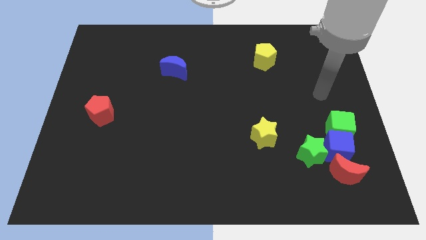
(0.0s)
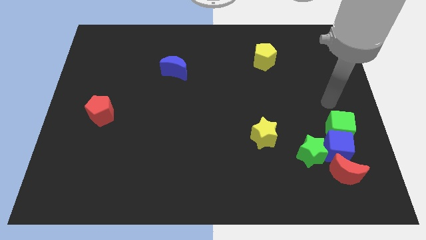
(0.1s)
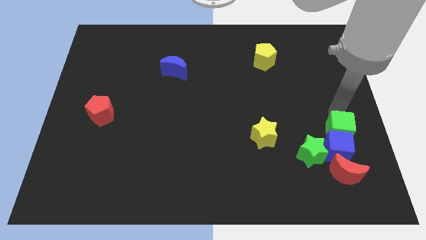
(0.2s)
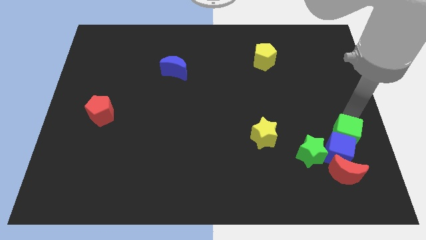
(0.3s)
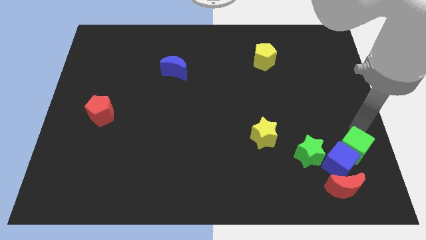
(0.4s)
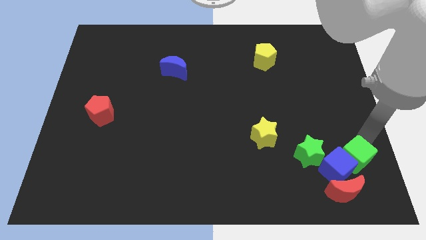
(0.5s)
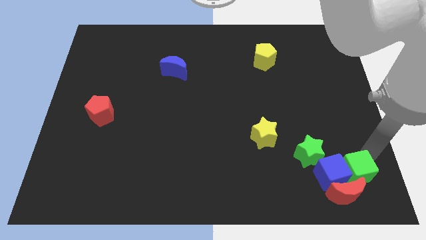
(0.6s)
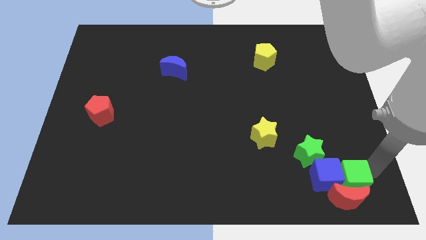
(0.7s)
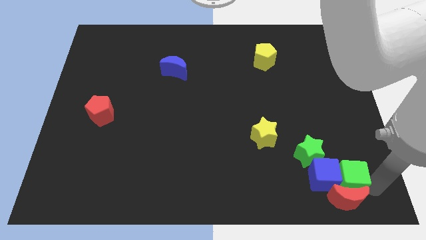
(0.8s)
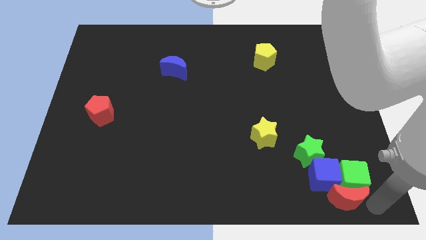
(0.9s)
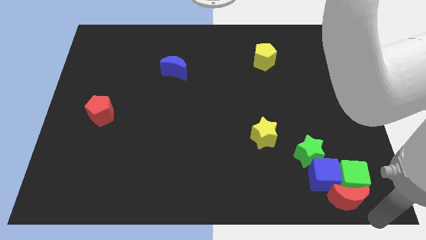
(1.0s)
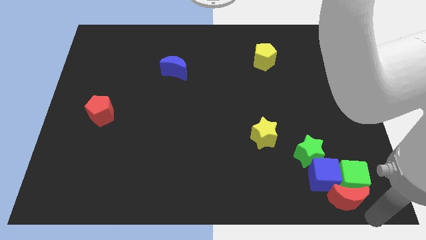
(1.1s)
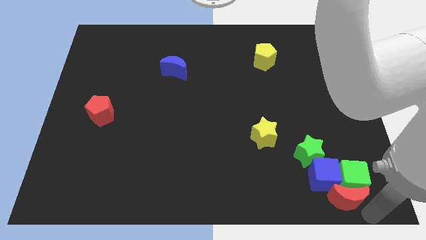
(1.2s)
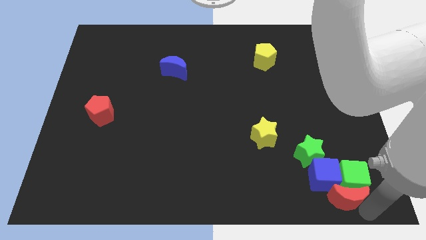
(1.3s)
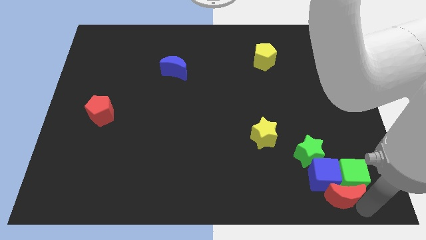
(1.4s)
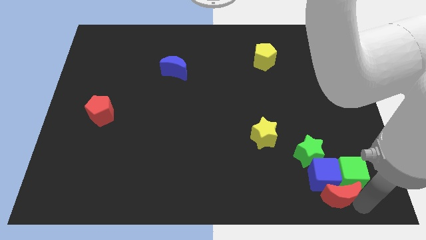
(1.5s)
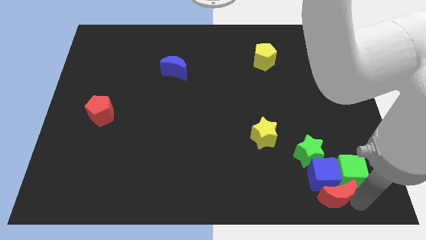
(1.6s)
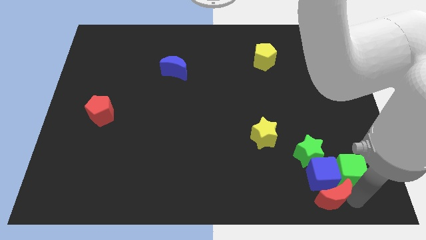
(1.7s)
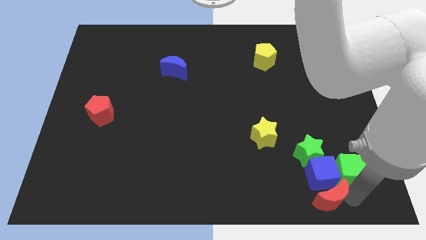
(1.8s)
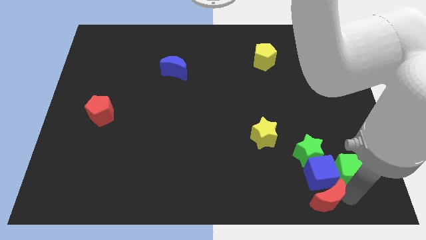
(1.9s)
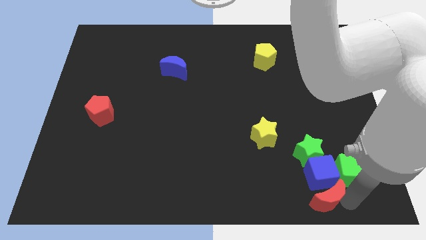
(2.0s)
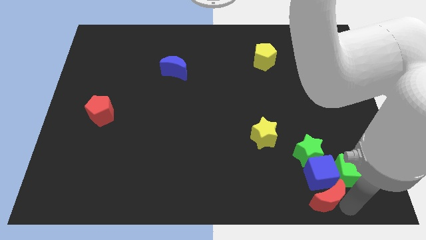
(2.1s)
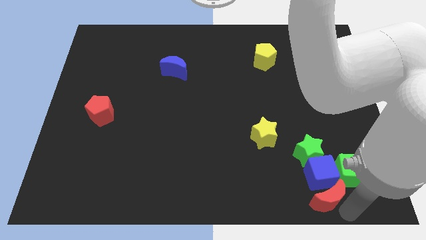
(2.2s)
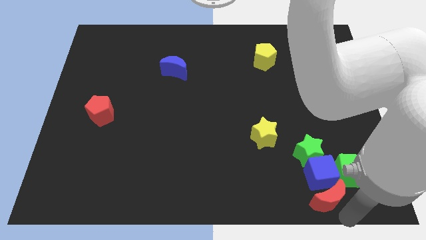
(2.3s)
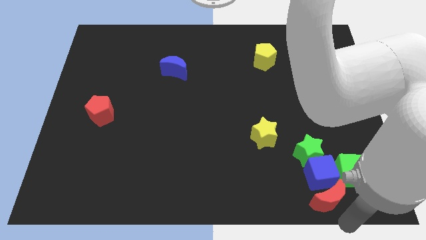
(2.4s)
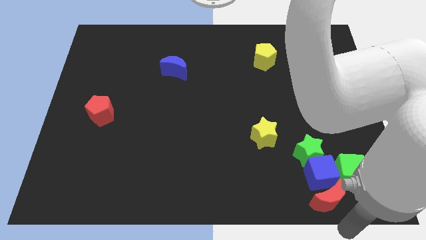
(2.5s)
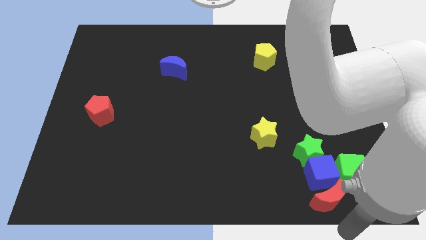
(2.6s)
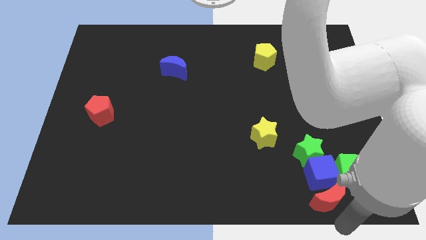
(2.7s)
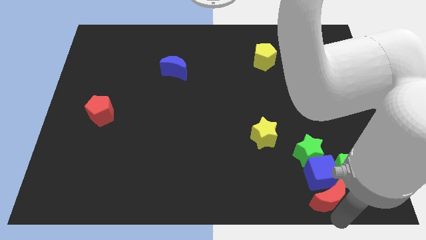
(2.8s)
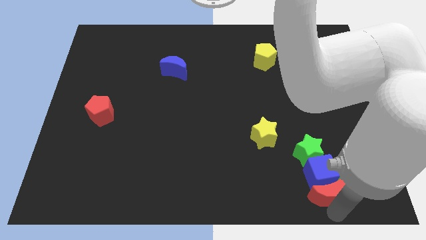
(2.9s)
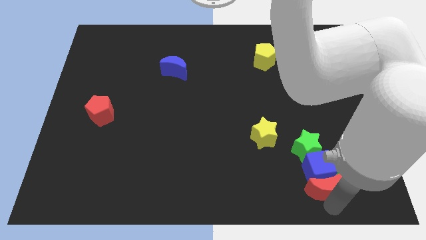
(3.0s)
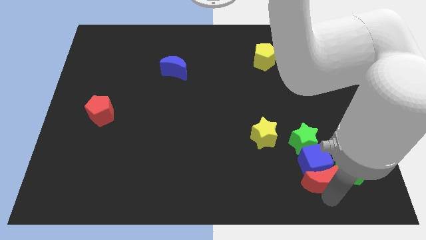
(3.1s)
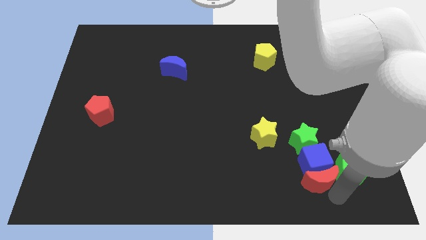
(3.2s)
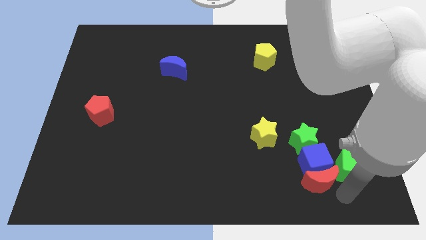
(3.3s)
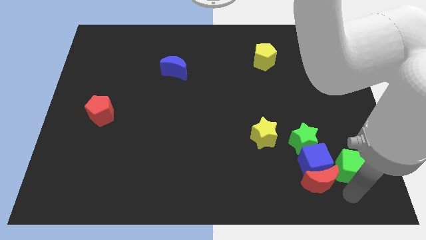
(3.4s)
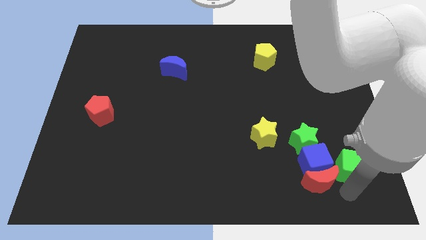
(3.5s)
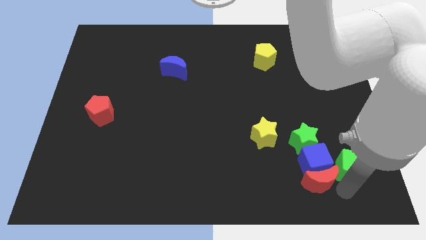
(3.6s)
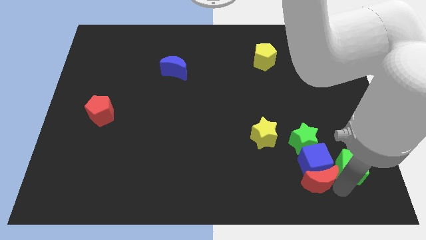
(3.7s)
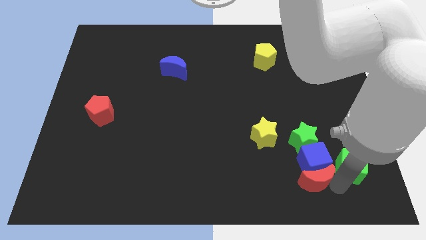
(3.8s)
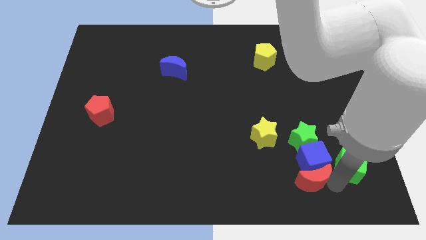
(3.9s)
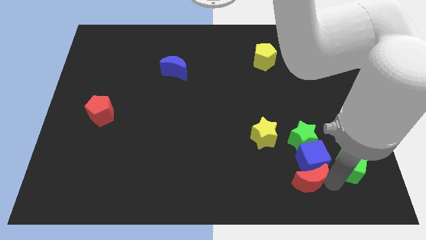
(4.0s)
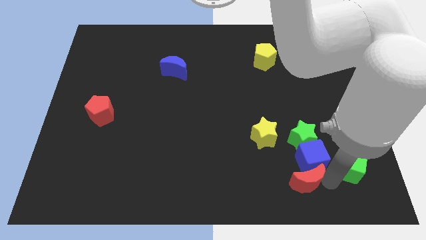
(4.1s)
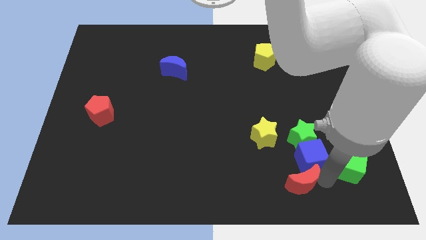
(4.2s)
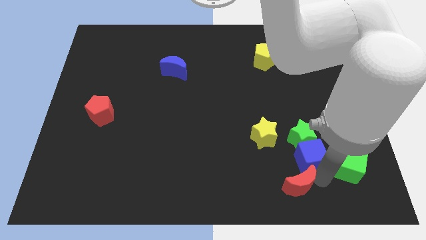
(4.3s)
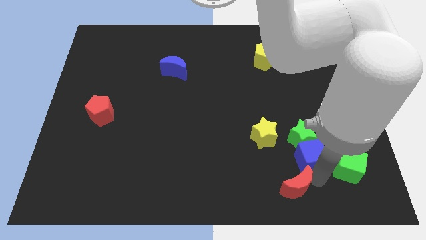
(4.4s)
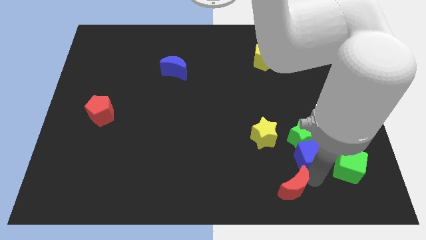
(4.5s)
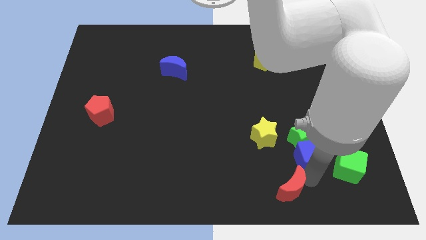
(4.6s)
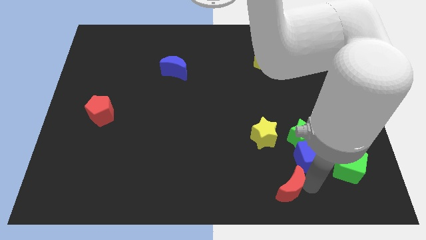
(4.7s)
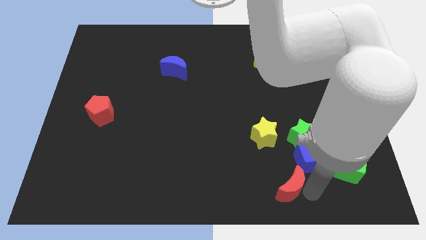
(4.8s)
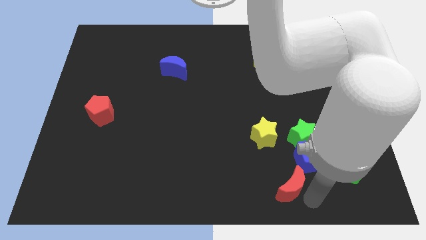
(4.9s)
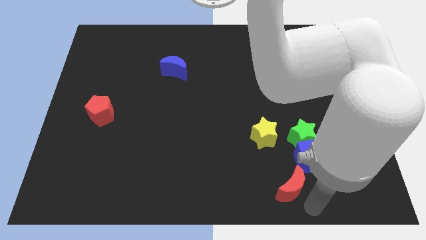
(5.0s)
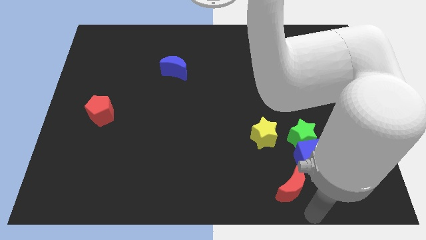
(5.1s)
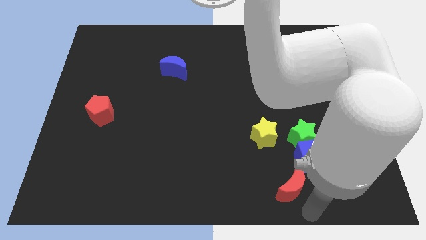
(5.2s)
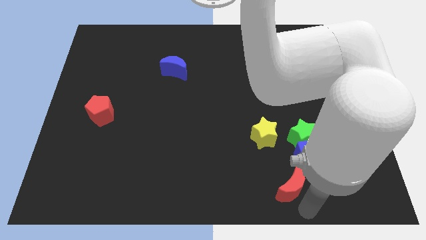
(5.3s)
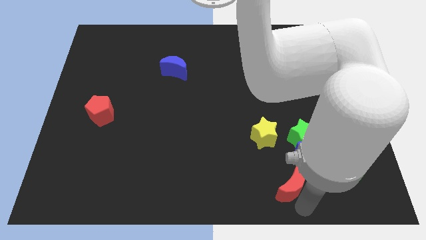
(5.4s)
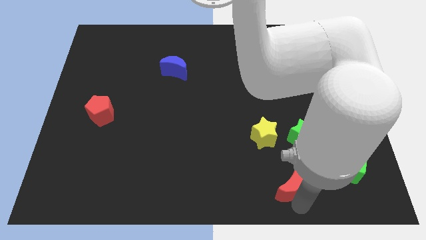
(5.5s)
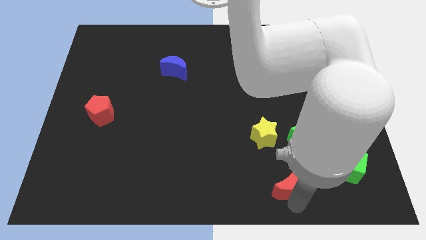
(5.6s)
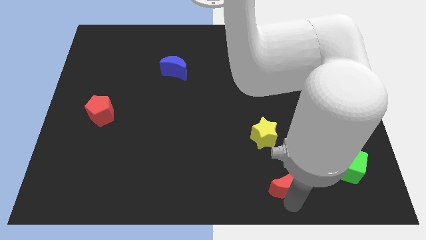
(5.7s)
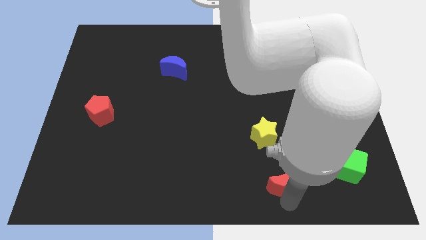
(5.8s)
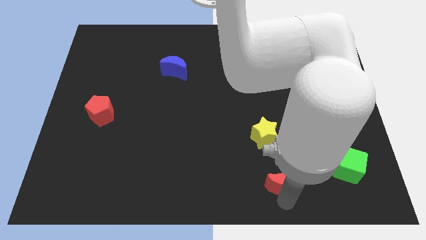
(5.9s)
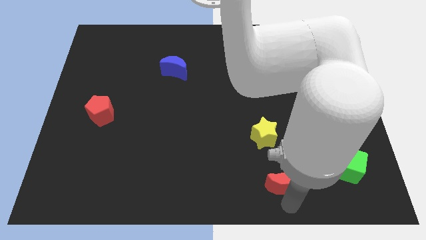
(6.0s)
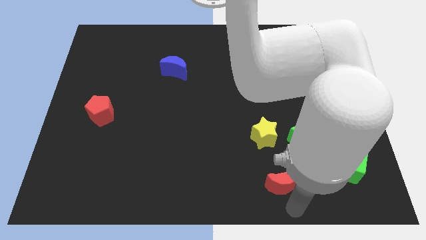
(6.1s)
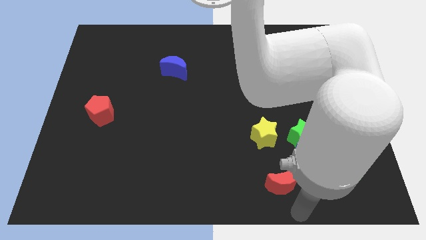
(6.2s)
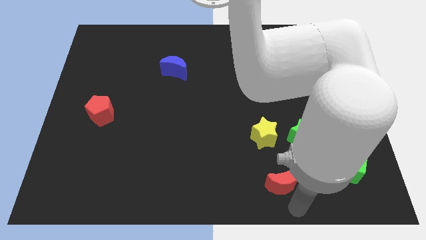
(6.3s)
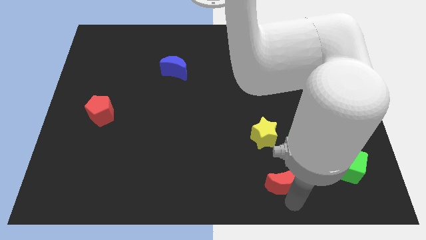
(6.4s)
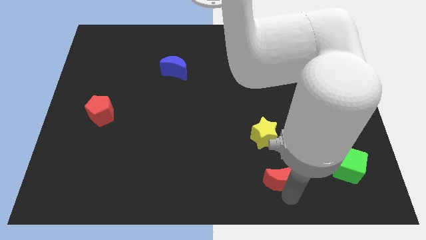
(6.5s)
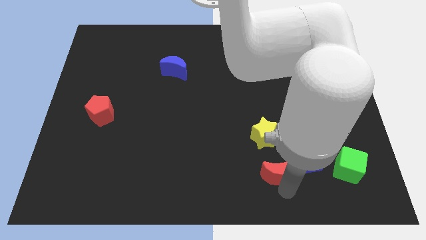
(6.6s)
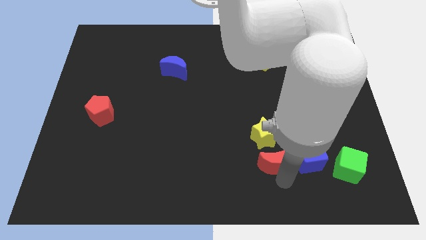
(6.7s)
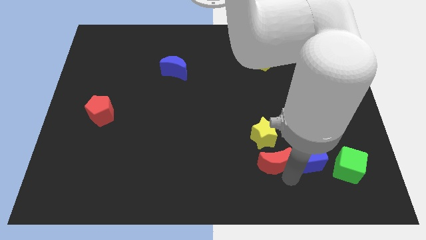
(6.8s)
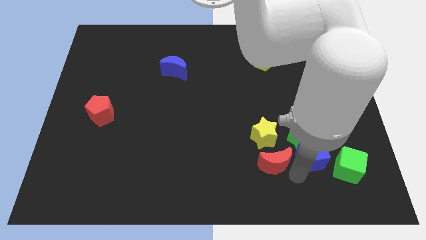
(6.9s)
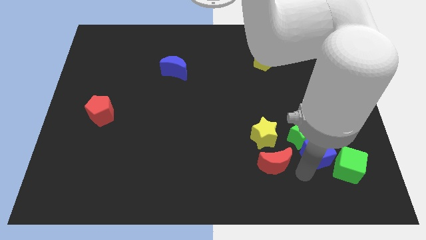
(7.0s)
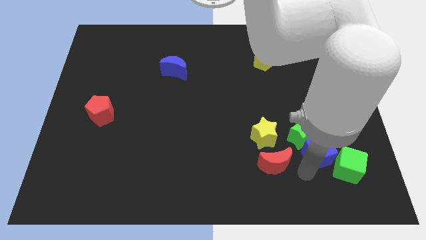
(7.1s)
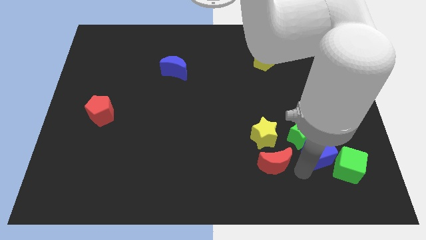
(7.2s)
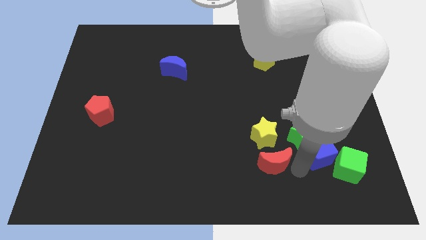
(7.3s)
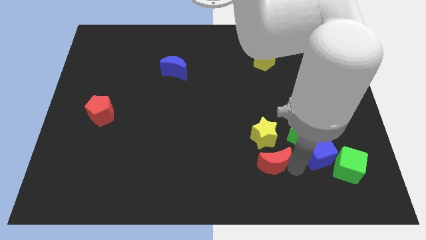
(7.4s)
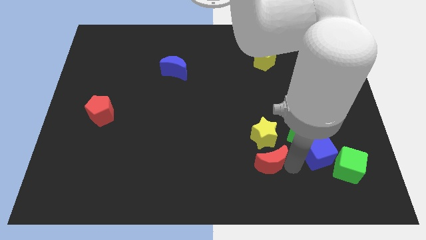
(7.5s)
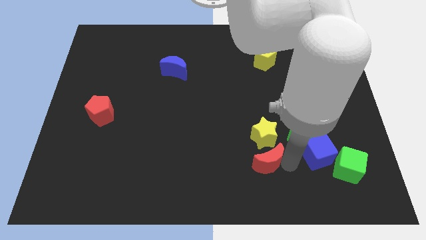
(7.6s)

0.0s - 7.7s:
push the red moon to the bottom left side of the yellow star
